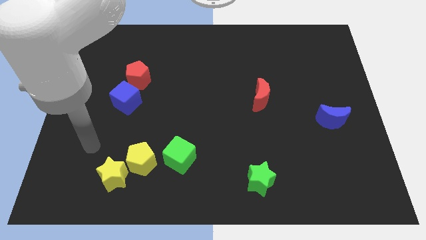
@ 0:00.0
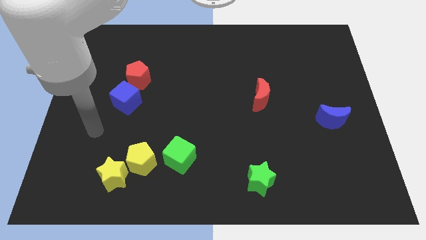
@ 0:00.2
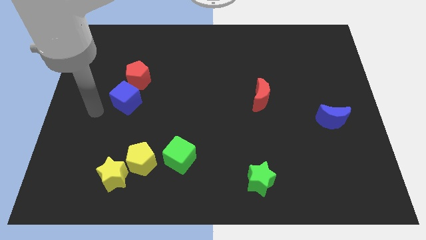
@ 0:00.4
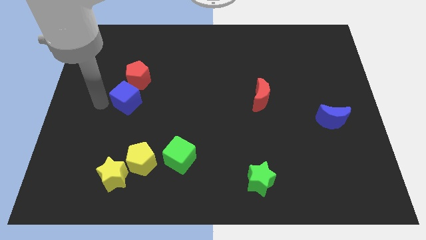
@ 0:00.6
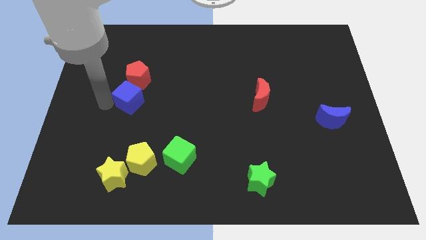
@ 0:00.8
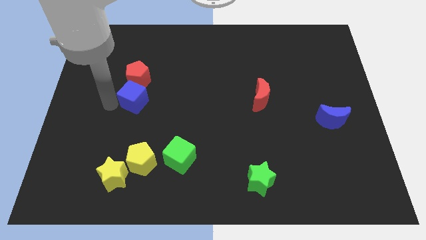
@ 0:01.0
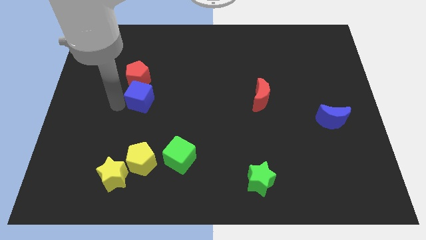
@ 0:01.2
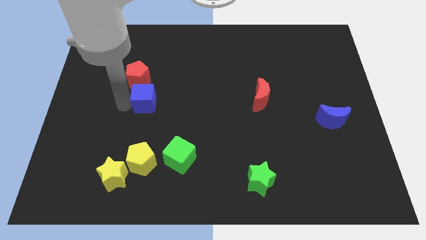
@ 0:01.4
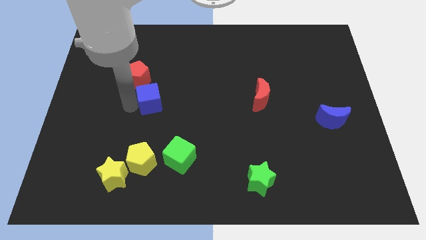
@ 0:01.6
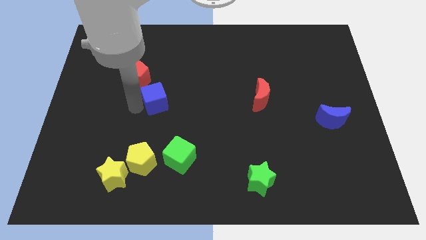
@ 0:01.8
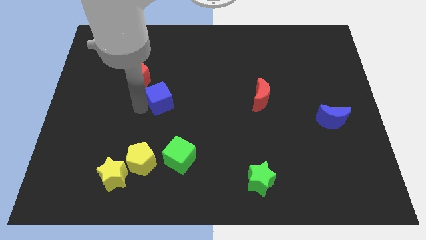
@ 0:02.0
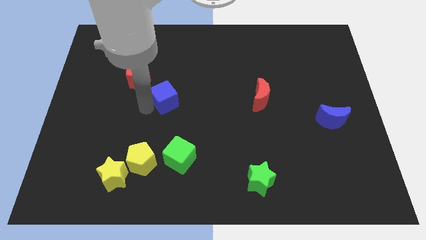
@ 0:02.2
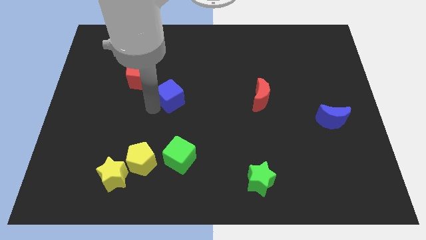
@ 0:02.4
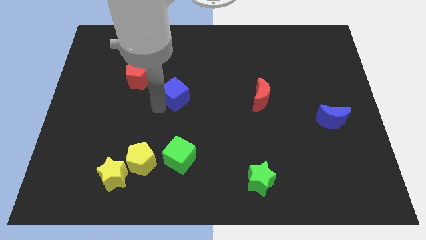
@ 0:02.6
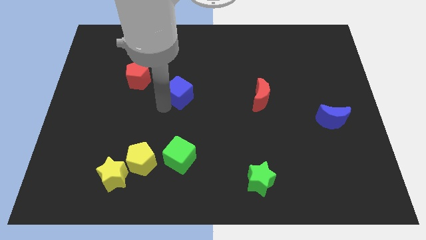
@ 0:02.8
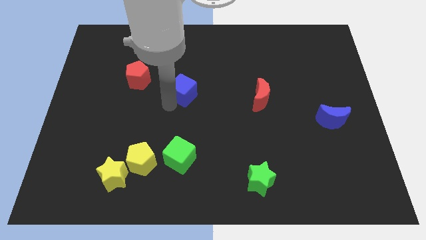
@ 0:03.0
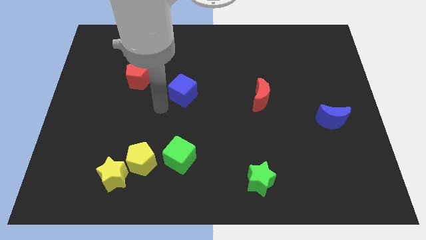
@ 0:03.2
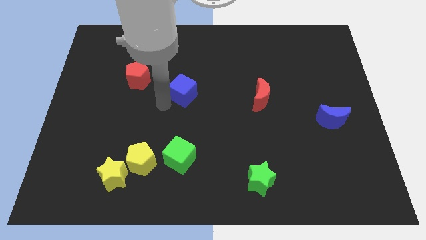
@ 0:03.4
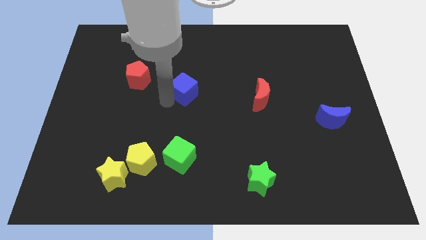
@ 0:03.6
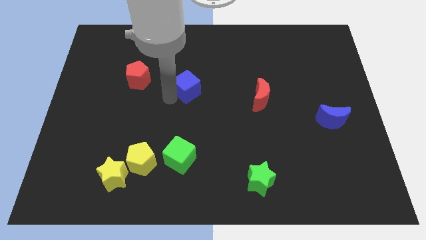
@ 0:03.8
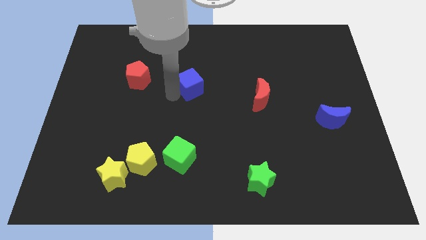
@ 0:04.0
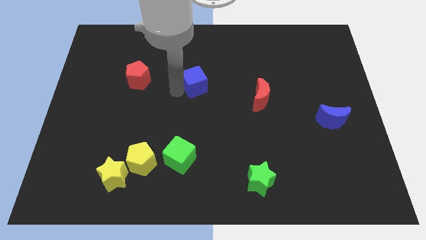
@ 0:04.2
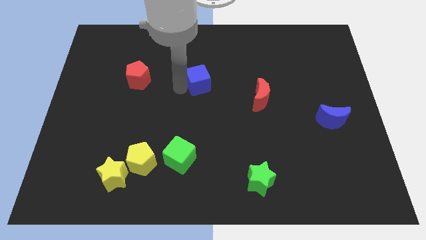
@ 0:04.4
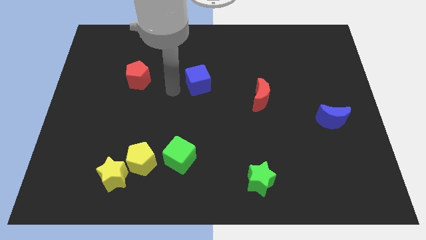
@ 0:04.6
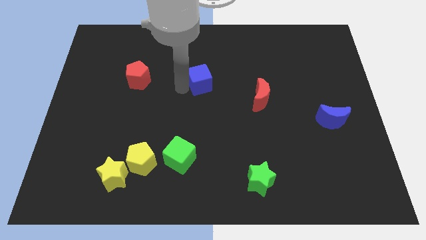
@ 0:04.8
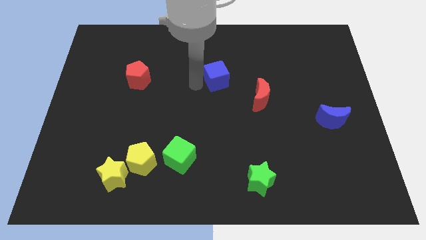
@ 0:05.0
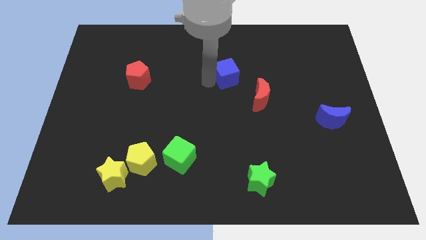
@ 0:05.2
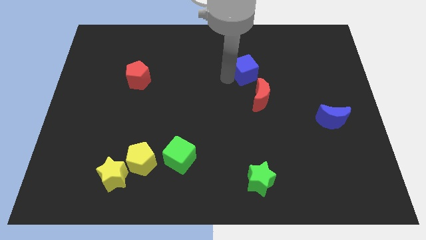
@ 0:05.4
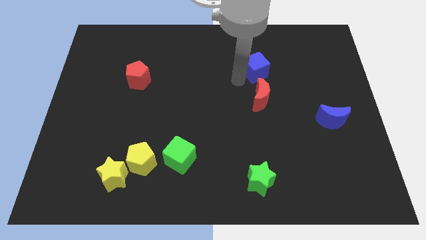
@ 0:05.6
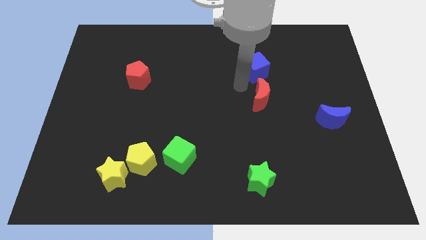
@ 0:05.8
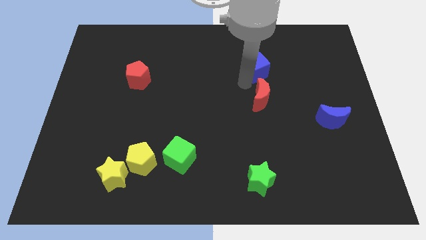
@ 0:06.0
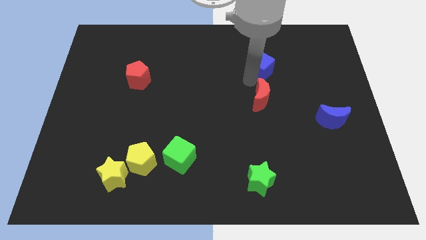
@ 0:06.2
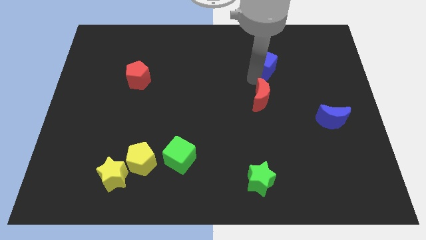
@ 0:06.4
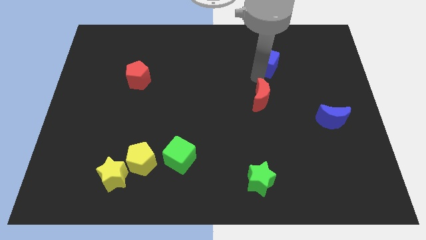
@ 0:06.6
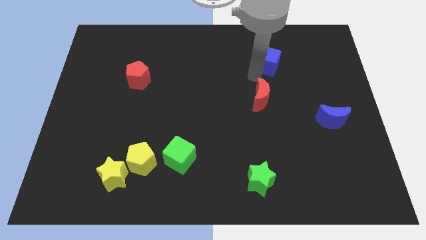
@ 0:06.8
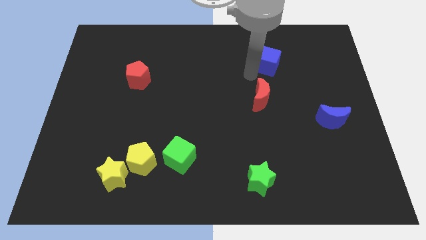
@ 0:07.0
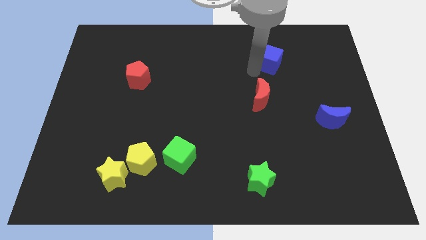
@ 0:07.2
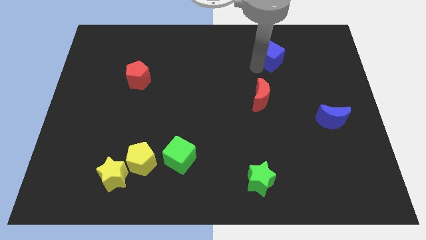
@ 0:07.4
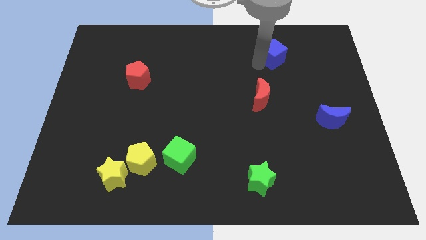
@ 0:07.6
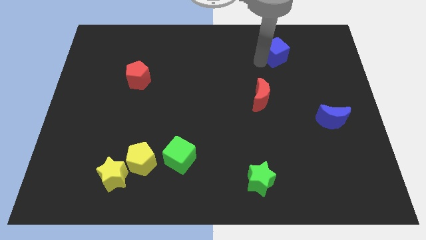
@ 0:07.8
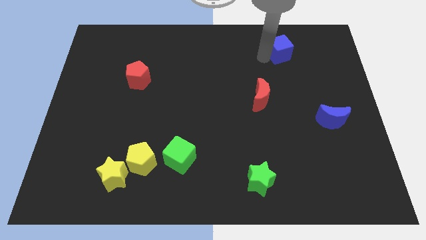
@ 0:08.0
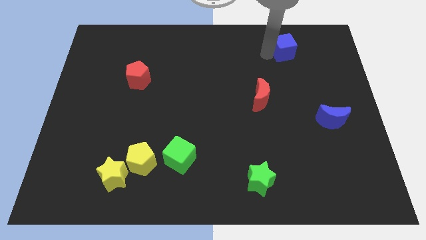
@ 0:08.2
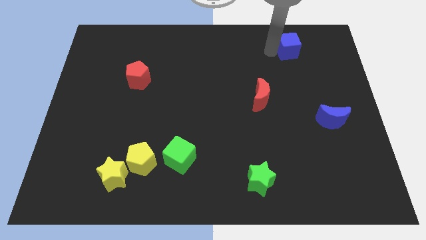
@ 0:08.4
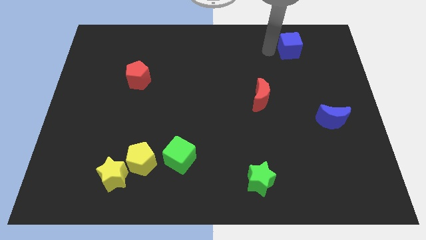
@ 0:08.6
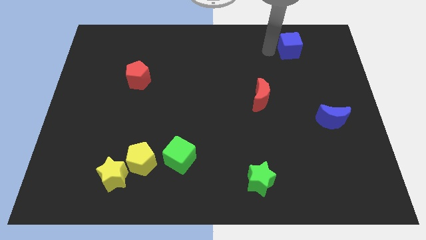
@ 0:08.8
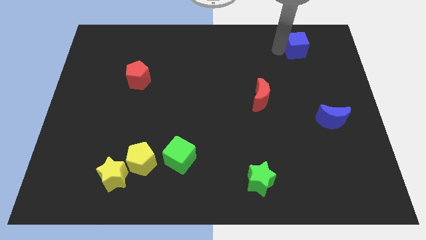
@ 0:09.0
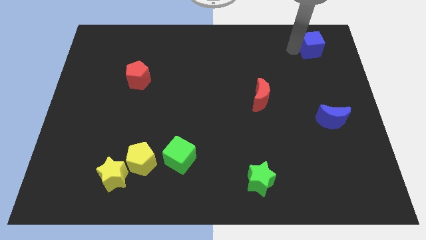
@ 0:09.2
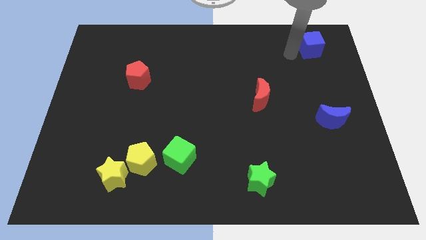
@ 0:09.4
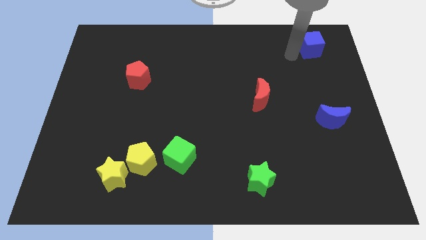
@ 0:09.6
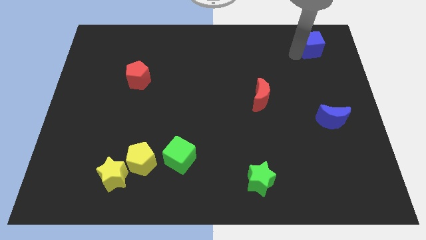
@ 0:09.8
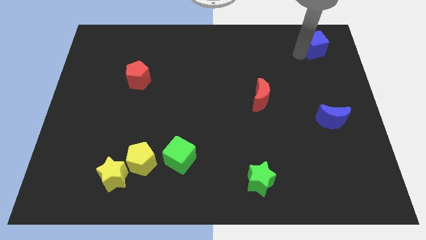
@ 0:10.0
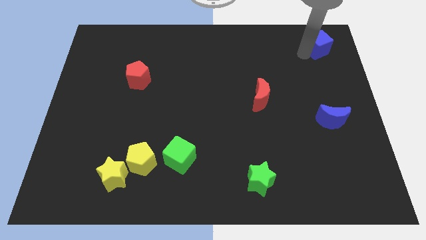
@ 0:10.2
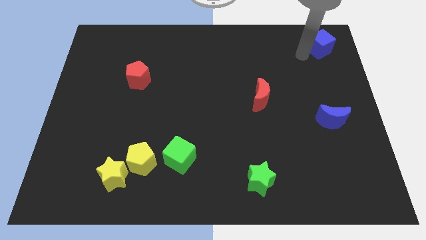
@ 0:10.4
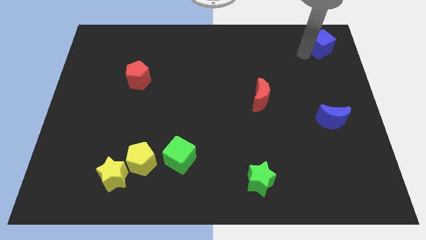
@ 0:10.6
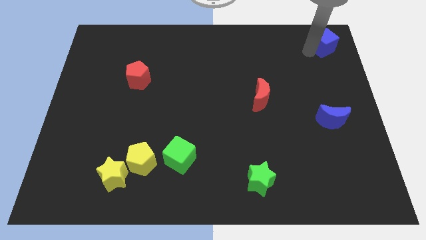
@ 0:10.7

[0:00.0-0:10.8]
put the blue cube to the top right

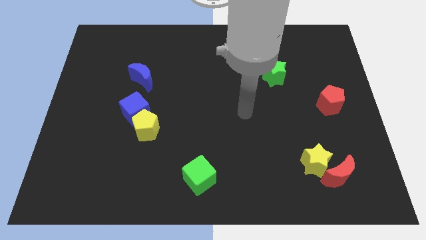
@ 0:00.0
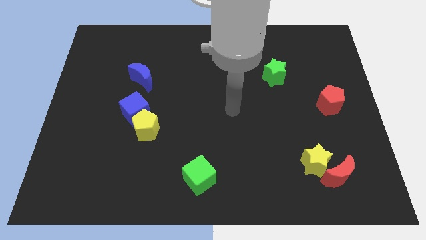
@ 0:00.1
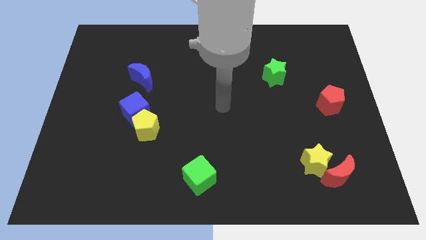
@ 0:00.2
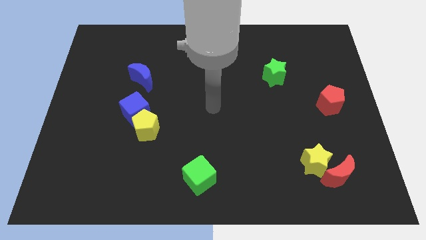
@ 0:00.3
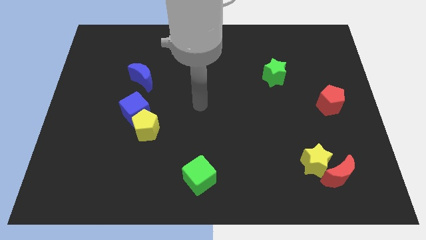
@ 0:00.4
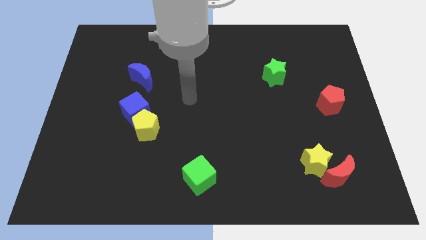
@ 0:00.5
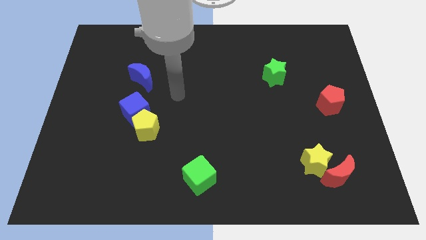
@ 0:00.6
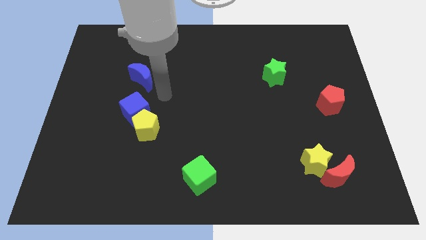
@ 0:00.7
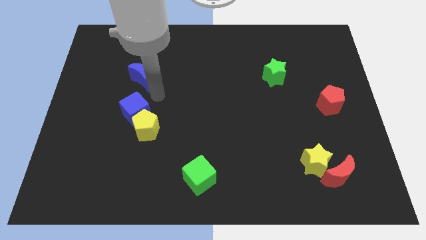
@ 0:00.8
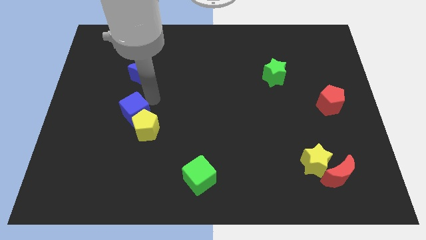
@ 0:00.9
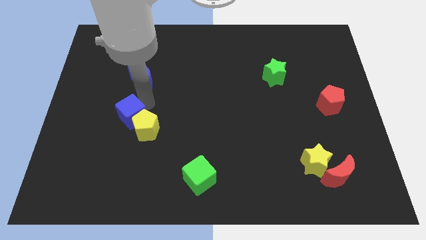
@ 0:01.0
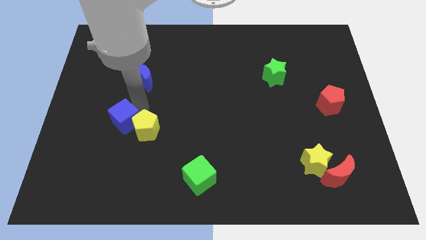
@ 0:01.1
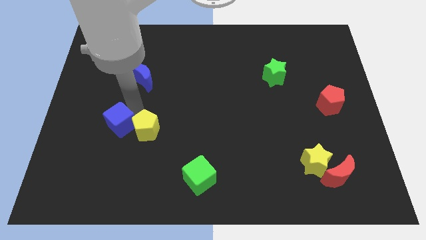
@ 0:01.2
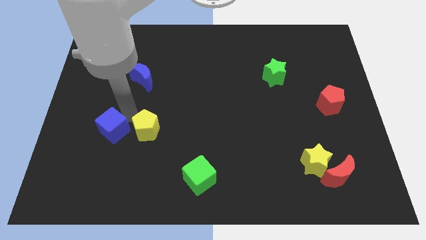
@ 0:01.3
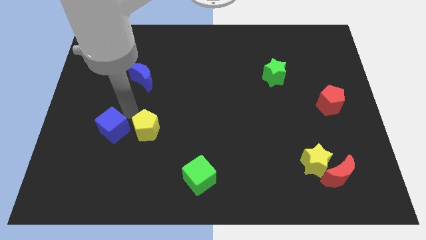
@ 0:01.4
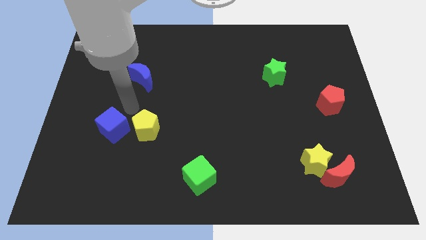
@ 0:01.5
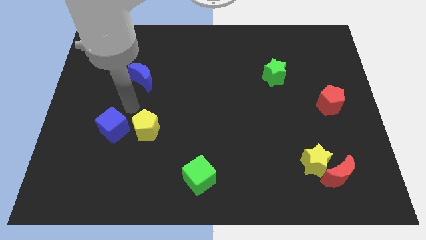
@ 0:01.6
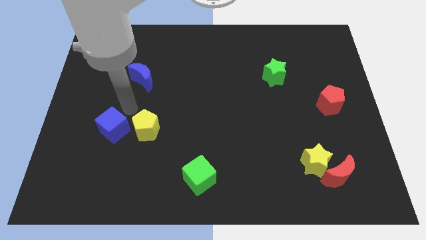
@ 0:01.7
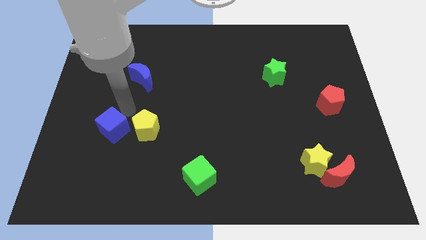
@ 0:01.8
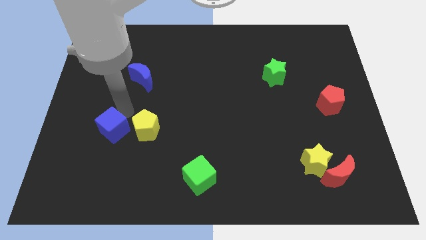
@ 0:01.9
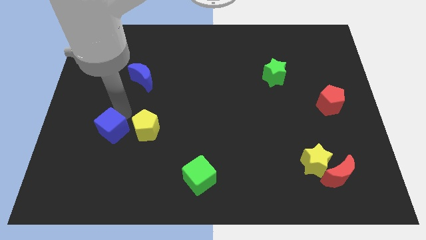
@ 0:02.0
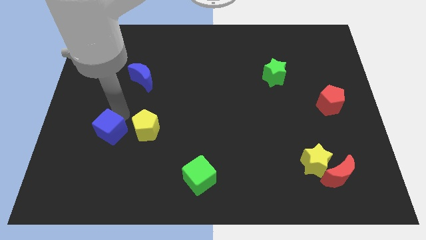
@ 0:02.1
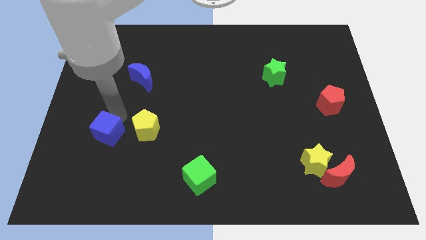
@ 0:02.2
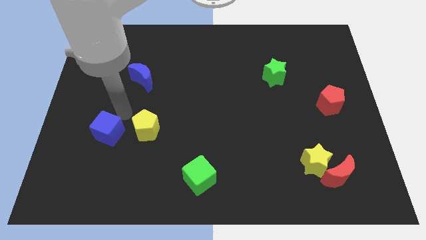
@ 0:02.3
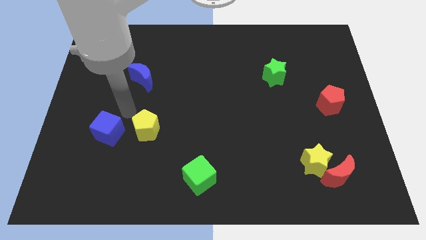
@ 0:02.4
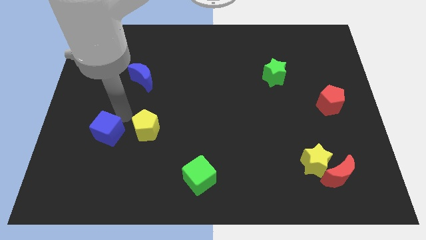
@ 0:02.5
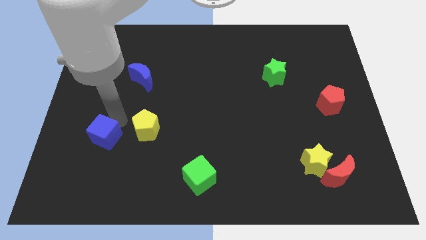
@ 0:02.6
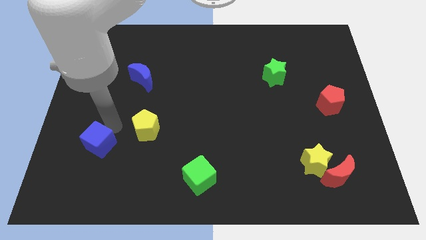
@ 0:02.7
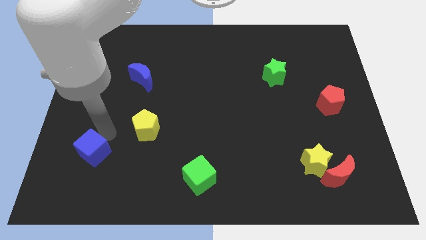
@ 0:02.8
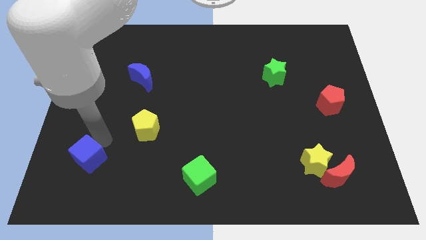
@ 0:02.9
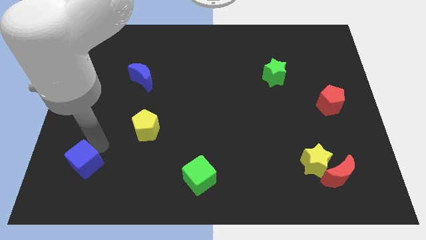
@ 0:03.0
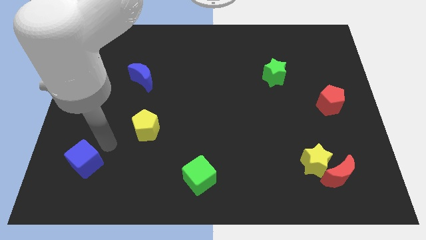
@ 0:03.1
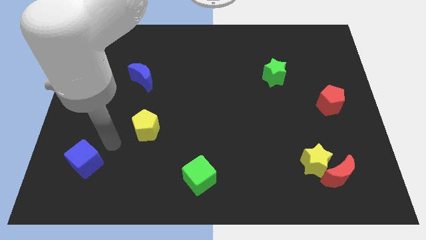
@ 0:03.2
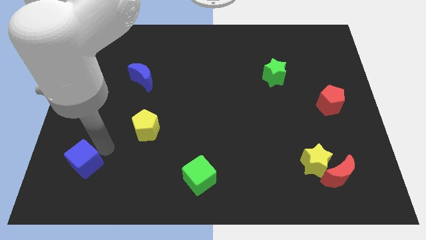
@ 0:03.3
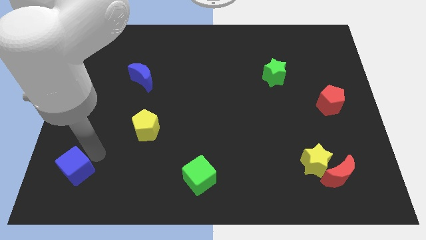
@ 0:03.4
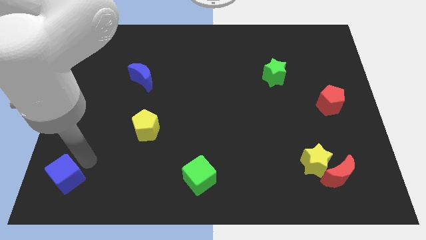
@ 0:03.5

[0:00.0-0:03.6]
slide the blue cube to the lower left corner
